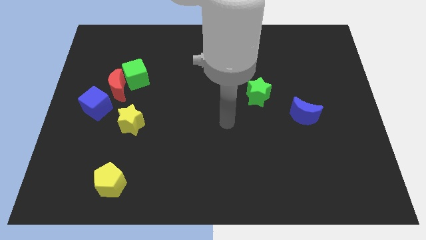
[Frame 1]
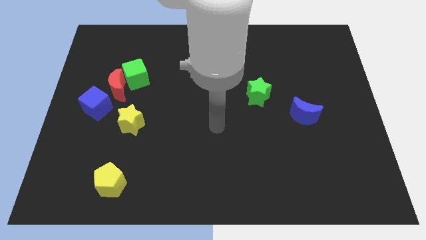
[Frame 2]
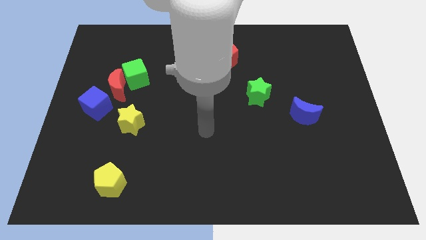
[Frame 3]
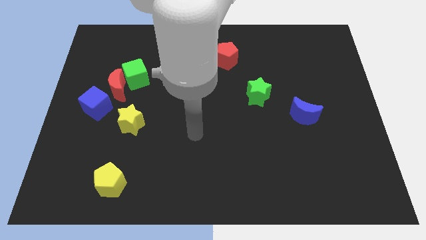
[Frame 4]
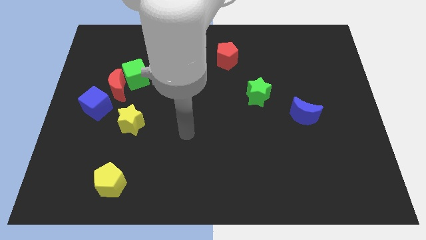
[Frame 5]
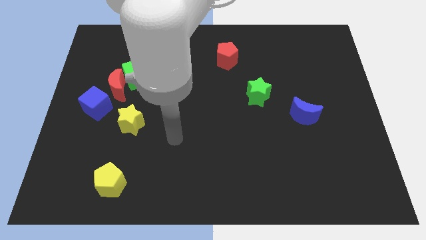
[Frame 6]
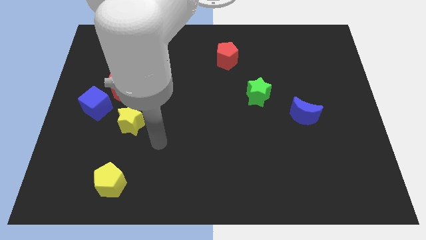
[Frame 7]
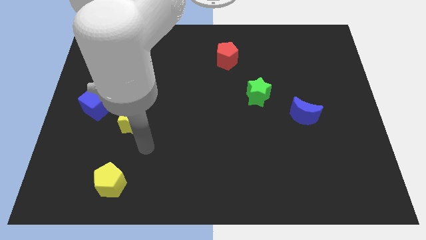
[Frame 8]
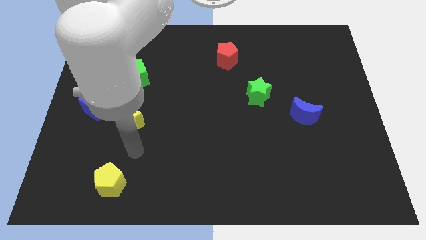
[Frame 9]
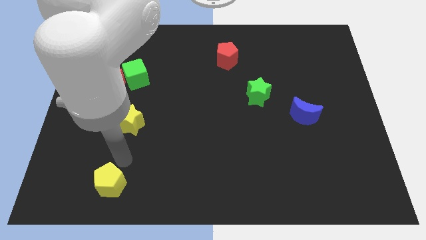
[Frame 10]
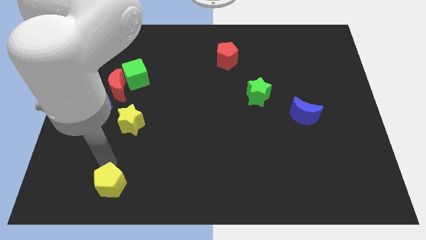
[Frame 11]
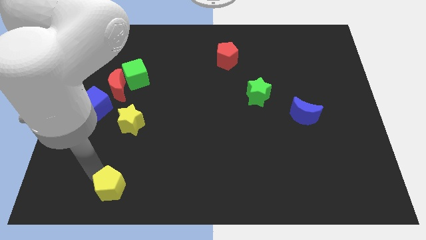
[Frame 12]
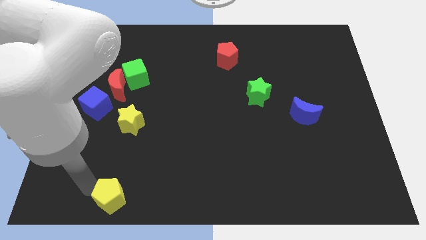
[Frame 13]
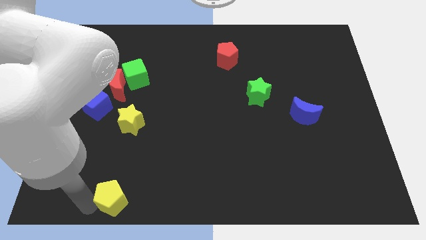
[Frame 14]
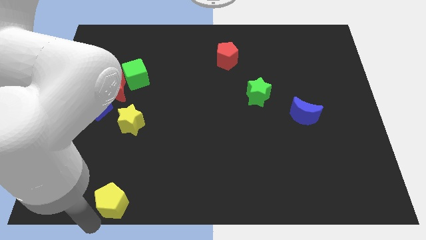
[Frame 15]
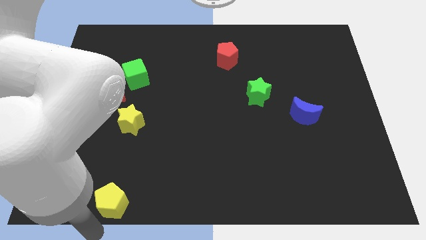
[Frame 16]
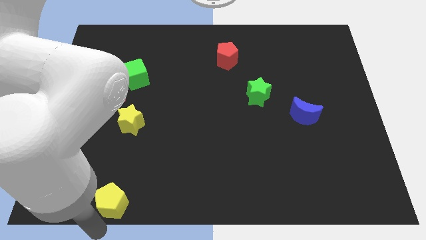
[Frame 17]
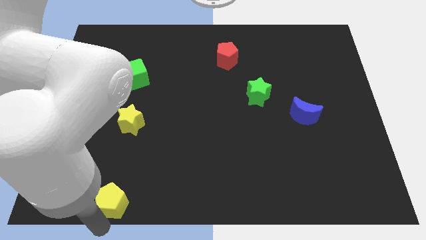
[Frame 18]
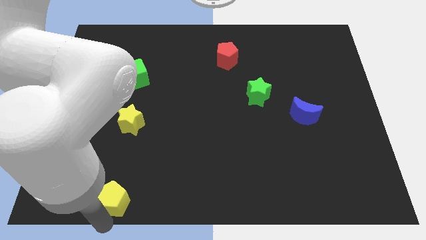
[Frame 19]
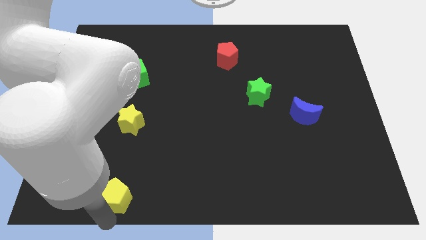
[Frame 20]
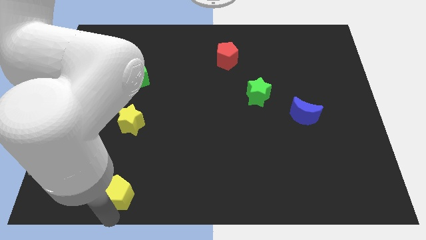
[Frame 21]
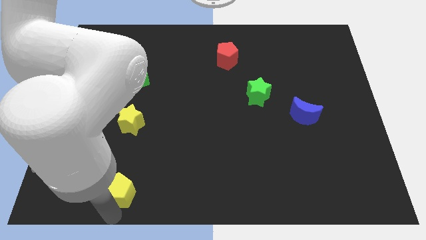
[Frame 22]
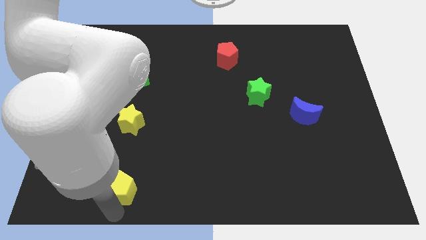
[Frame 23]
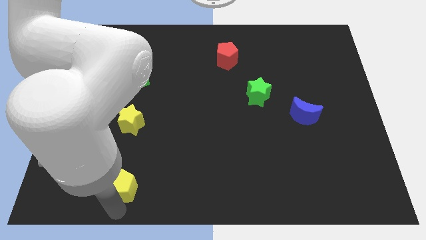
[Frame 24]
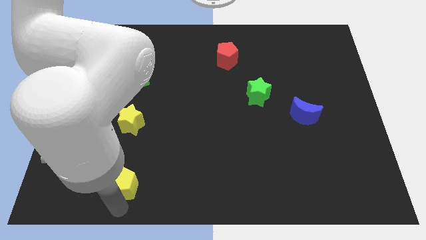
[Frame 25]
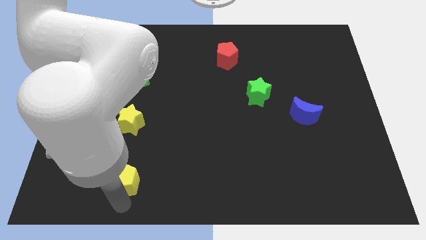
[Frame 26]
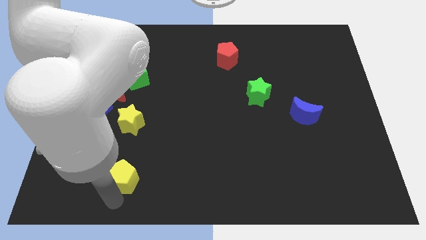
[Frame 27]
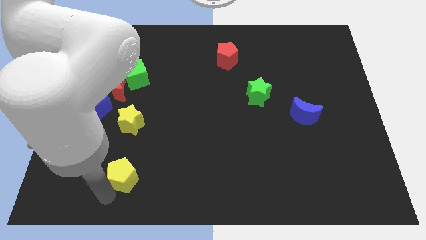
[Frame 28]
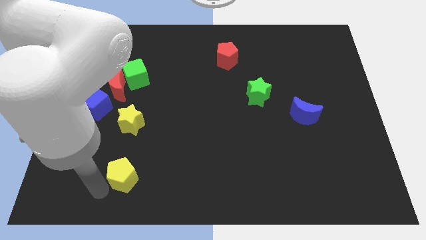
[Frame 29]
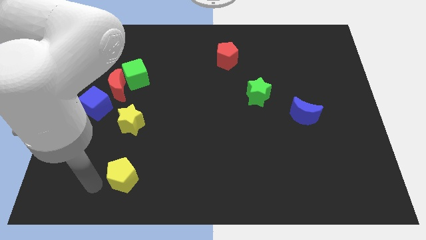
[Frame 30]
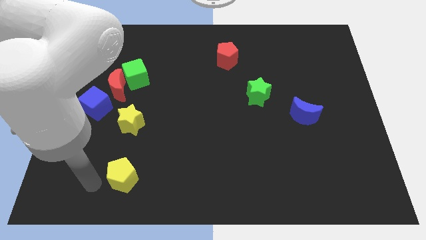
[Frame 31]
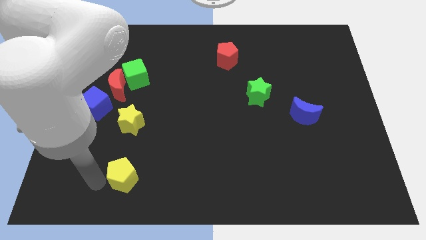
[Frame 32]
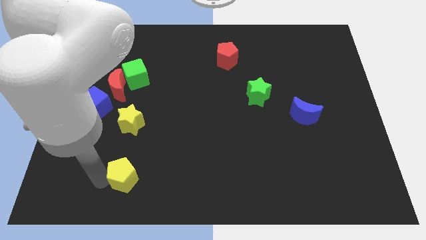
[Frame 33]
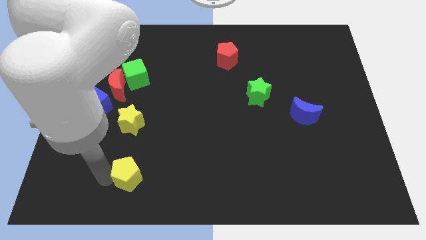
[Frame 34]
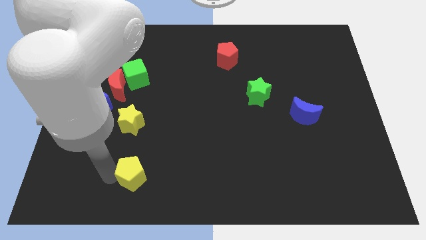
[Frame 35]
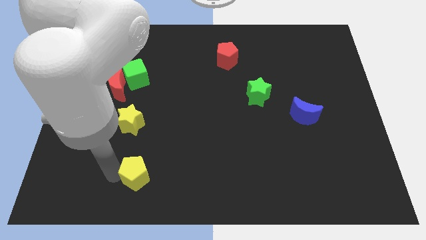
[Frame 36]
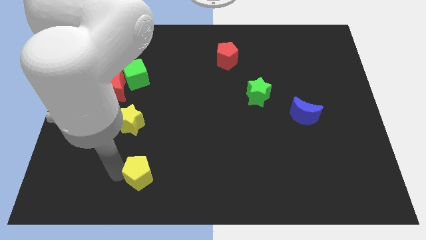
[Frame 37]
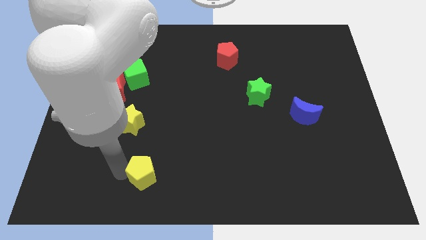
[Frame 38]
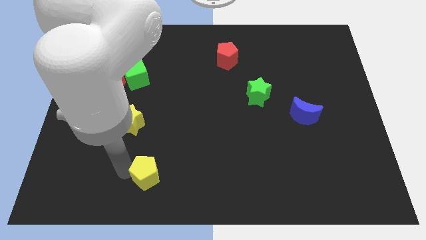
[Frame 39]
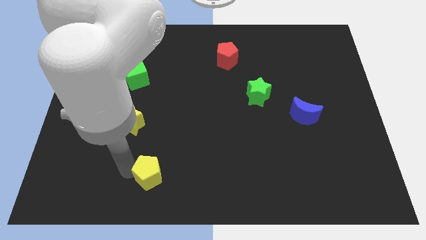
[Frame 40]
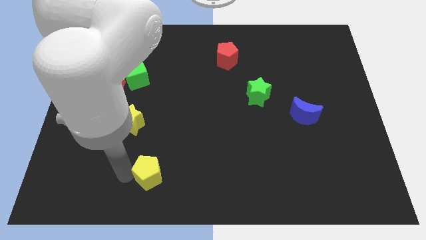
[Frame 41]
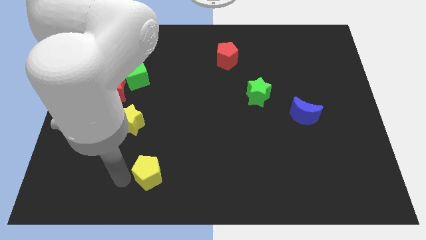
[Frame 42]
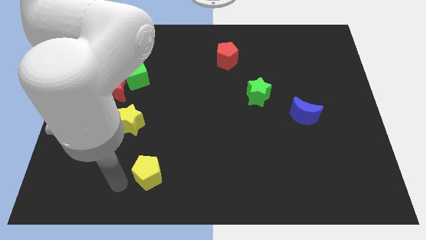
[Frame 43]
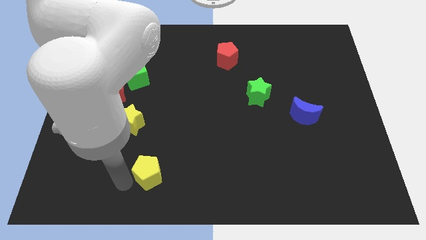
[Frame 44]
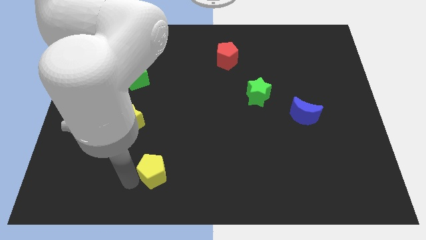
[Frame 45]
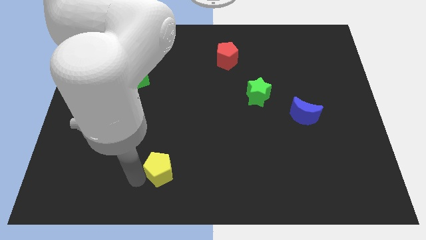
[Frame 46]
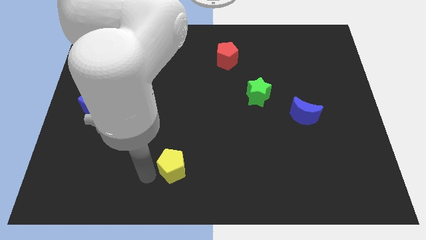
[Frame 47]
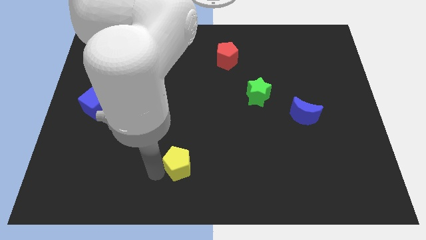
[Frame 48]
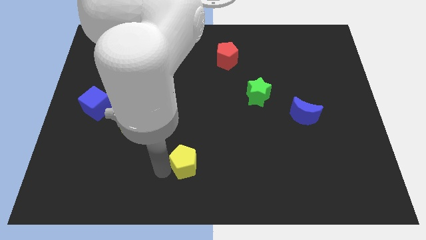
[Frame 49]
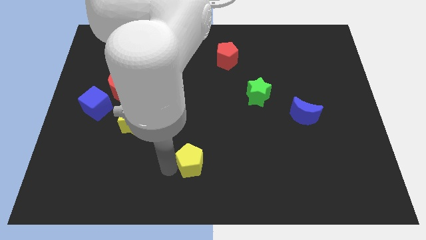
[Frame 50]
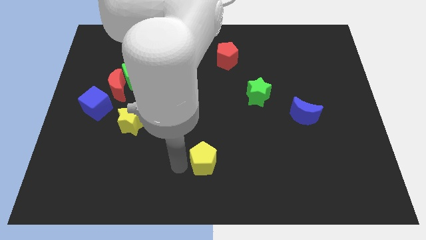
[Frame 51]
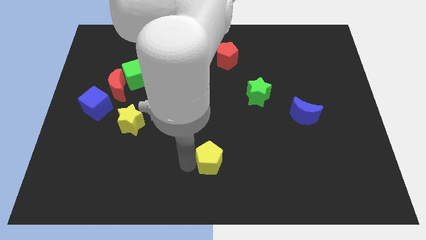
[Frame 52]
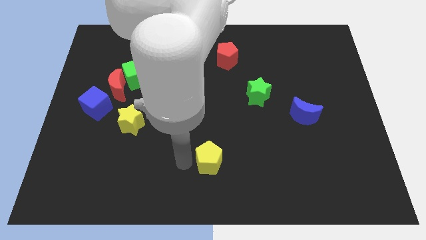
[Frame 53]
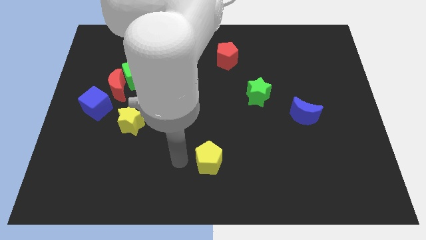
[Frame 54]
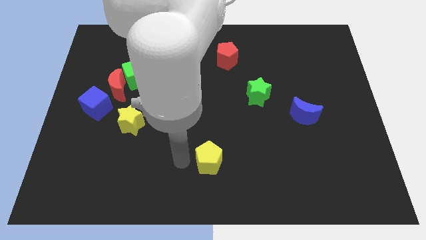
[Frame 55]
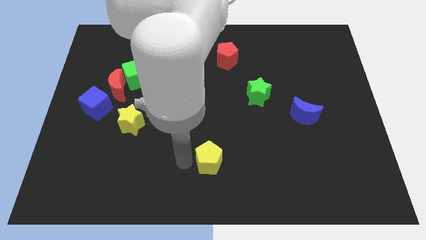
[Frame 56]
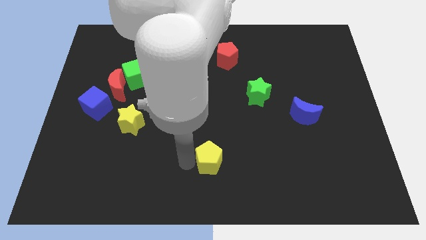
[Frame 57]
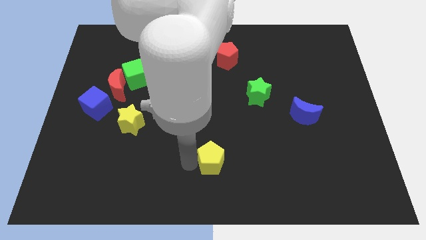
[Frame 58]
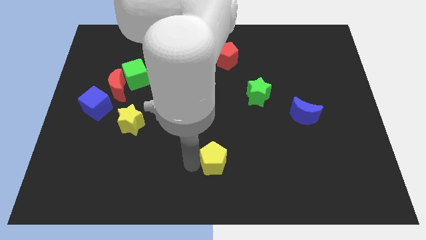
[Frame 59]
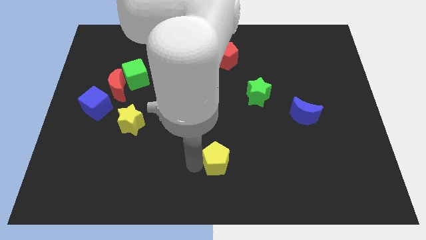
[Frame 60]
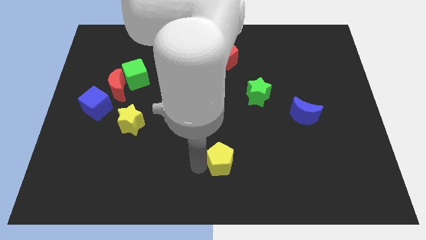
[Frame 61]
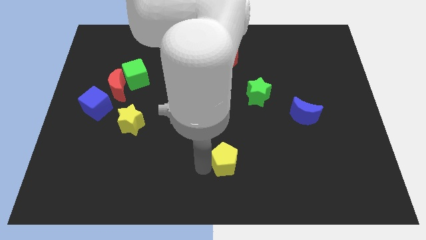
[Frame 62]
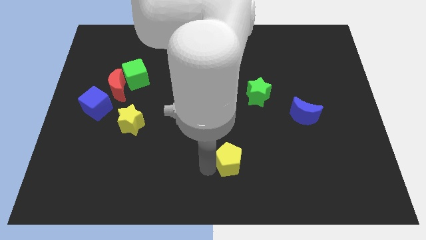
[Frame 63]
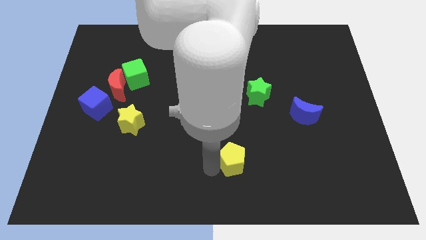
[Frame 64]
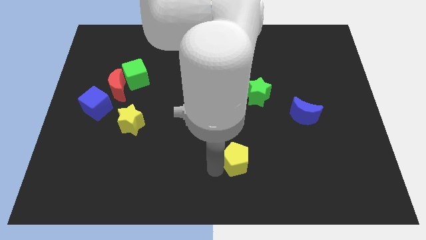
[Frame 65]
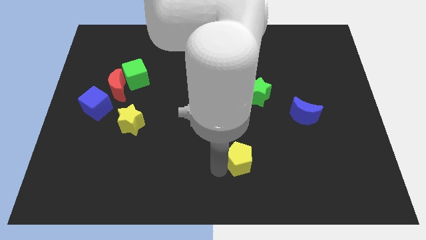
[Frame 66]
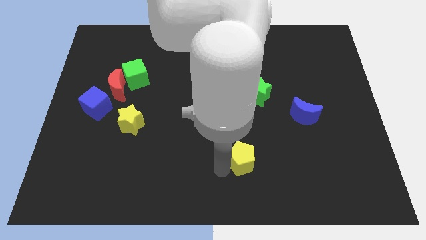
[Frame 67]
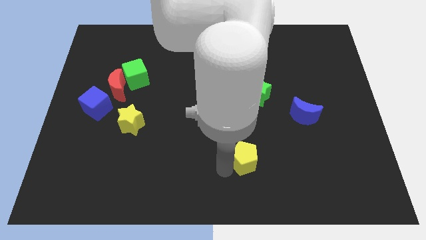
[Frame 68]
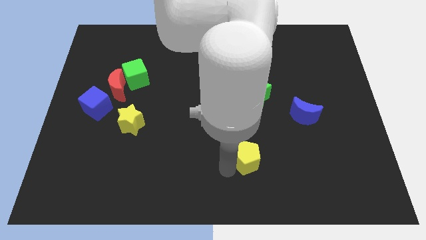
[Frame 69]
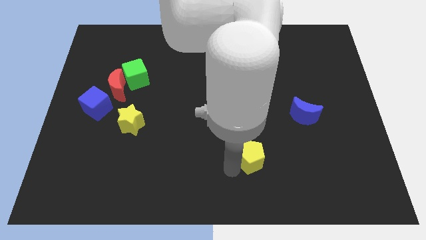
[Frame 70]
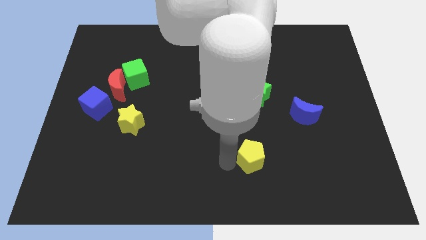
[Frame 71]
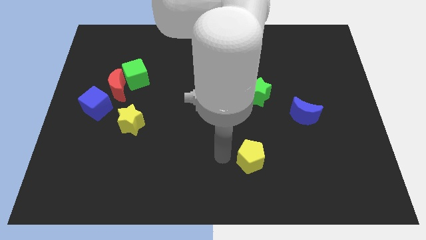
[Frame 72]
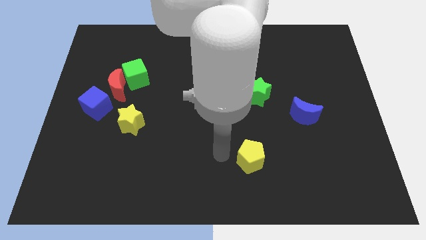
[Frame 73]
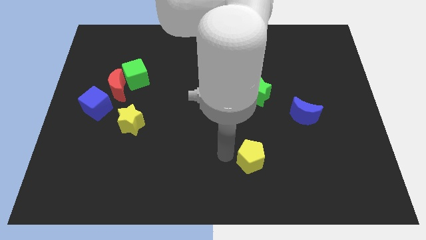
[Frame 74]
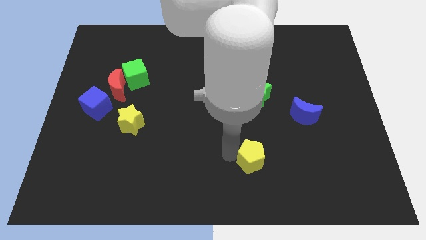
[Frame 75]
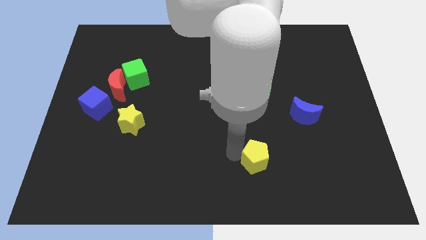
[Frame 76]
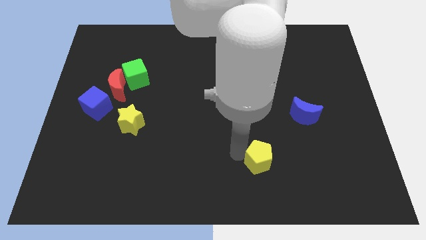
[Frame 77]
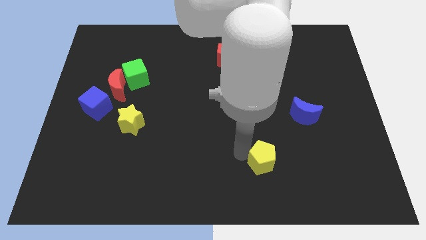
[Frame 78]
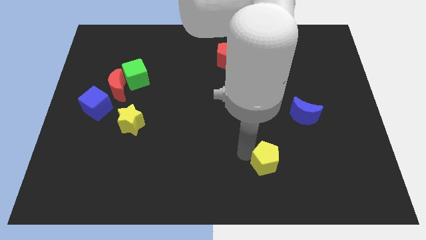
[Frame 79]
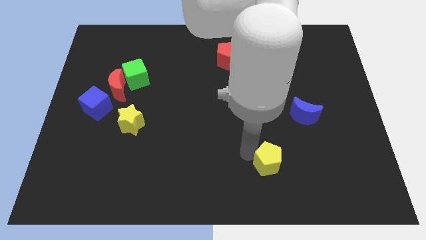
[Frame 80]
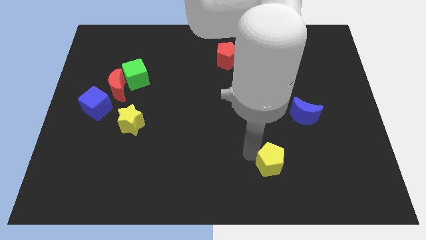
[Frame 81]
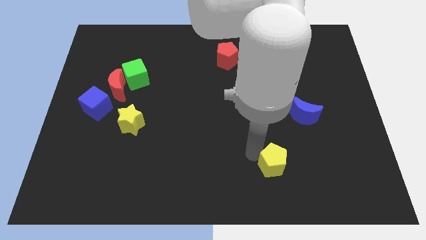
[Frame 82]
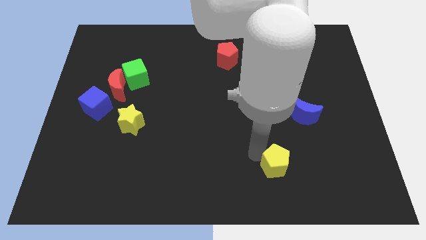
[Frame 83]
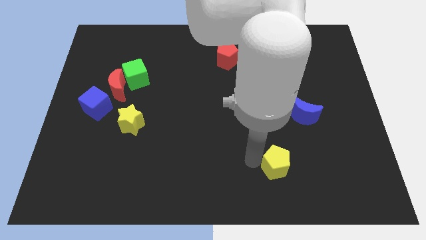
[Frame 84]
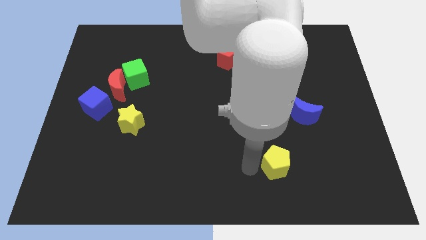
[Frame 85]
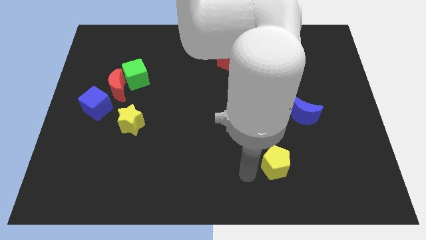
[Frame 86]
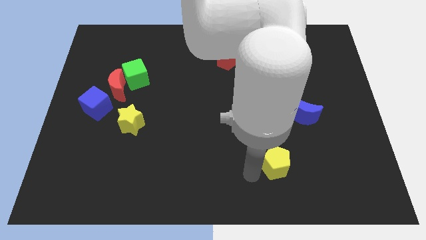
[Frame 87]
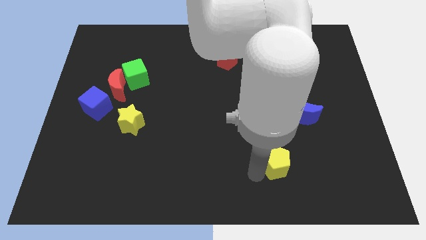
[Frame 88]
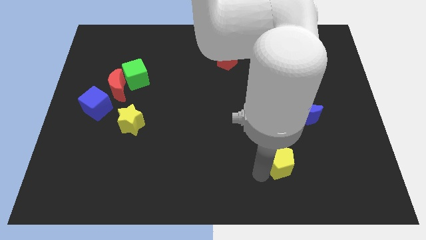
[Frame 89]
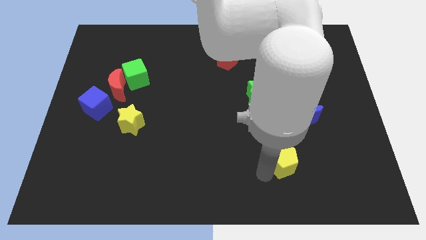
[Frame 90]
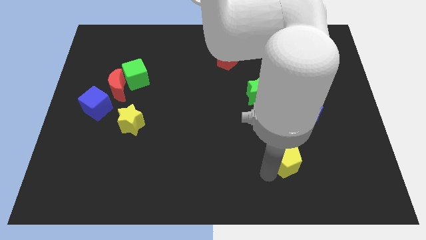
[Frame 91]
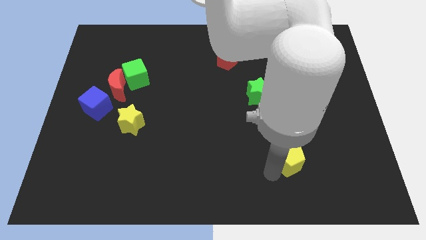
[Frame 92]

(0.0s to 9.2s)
move the yellow pentagon to the bottom side of the blue moon
